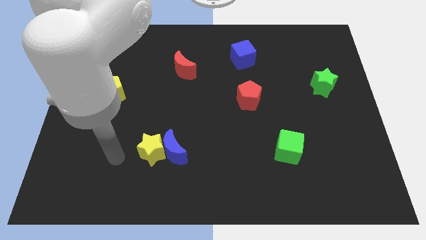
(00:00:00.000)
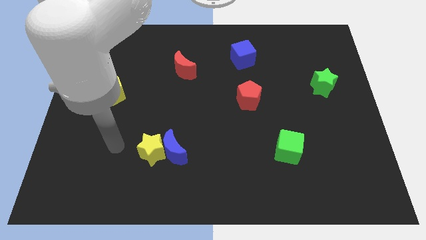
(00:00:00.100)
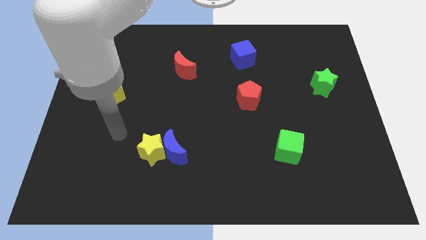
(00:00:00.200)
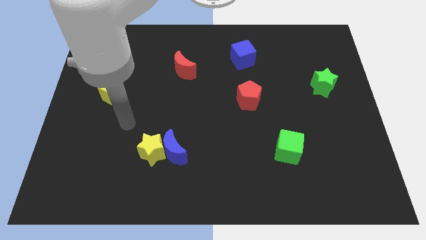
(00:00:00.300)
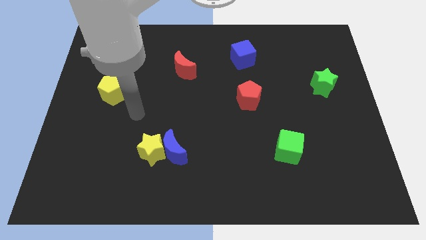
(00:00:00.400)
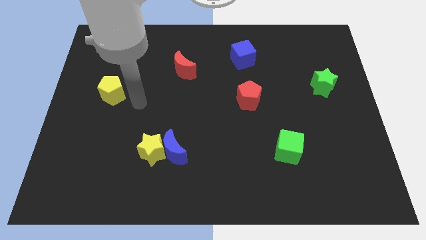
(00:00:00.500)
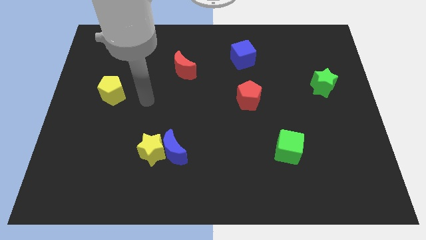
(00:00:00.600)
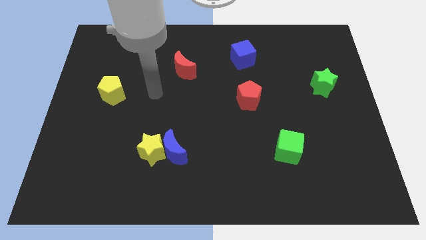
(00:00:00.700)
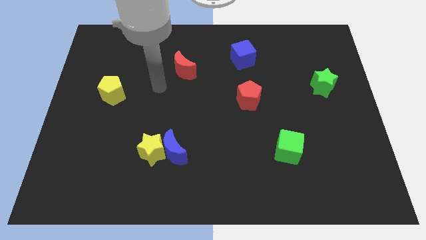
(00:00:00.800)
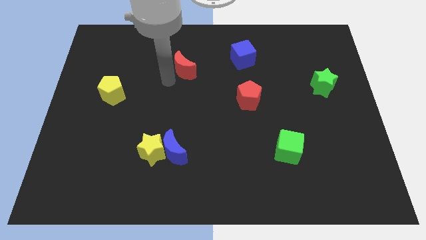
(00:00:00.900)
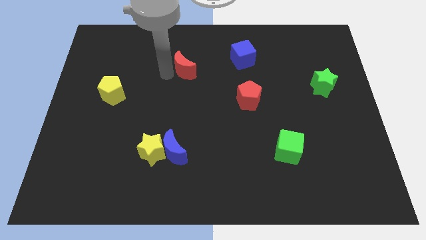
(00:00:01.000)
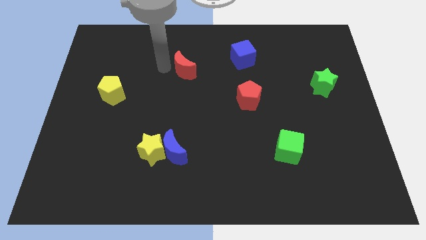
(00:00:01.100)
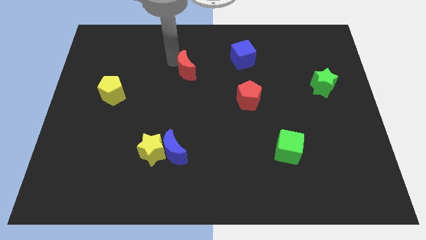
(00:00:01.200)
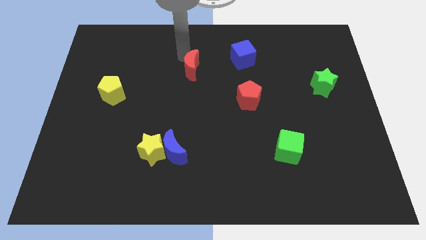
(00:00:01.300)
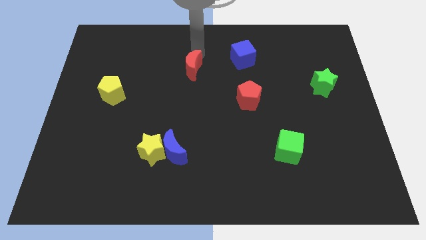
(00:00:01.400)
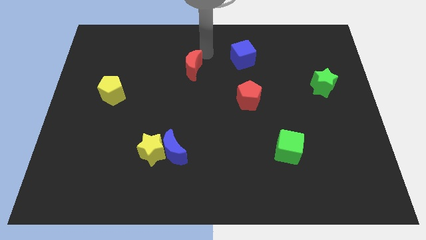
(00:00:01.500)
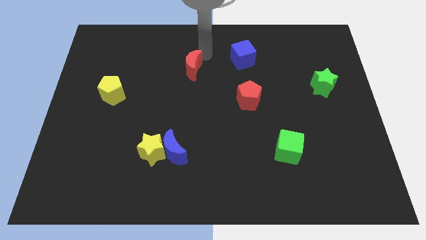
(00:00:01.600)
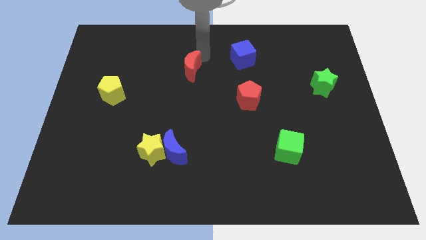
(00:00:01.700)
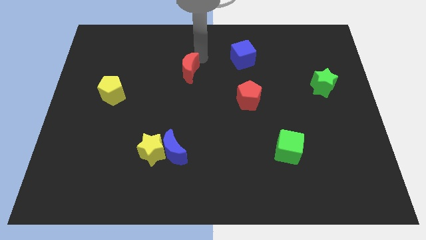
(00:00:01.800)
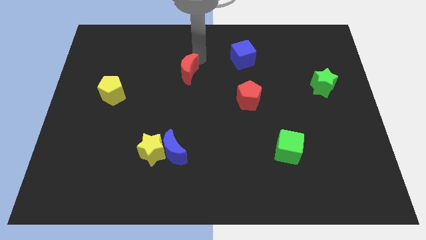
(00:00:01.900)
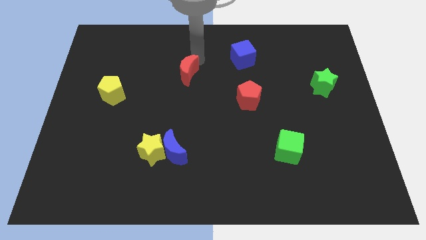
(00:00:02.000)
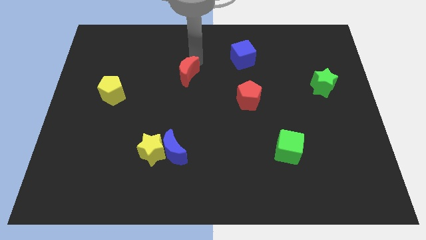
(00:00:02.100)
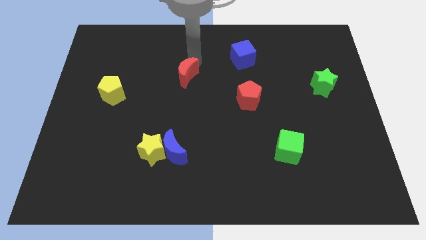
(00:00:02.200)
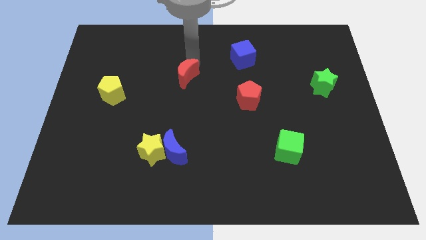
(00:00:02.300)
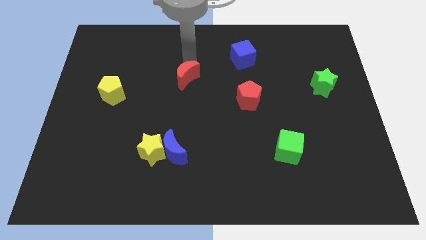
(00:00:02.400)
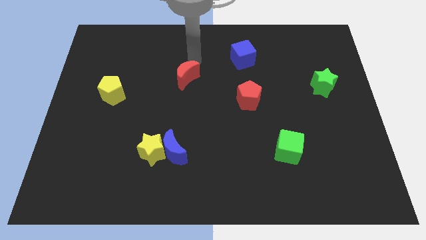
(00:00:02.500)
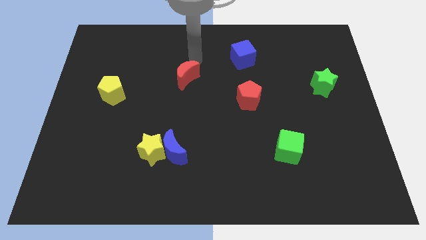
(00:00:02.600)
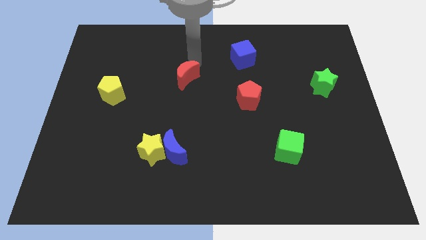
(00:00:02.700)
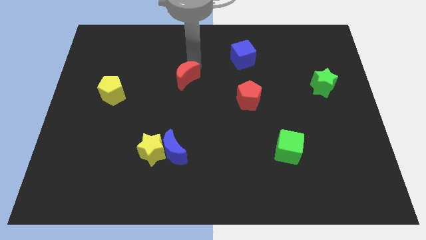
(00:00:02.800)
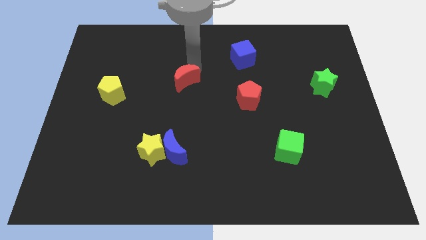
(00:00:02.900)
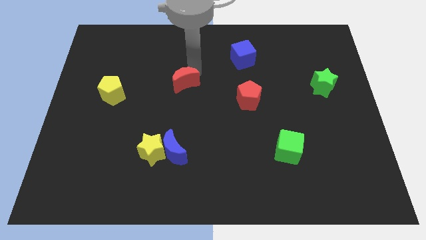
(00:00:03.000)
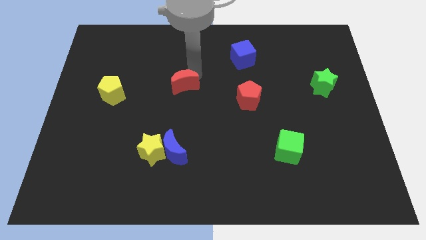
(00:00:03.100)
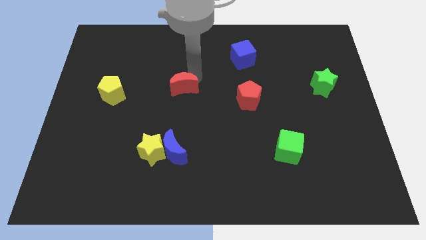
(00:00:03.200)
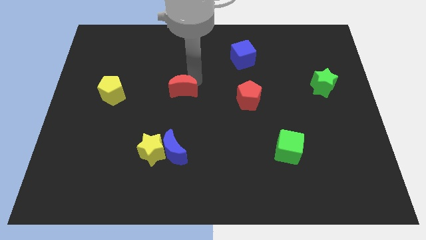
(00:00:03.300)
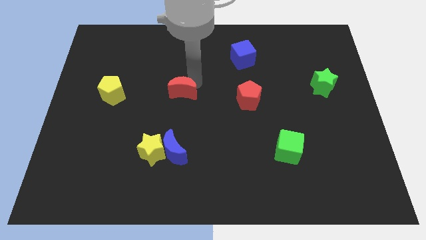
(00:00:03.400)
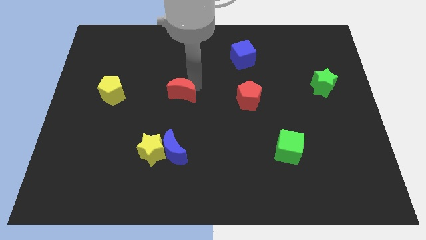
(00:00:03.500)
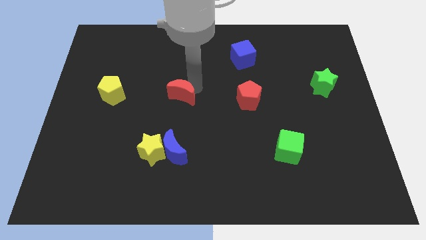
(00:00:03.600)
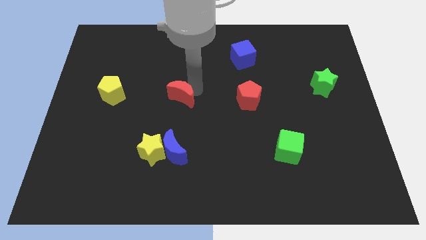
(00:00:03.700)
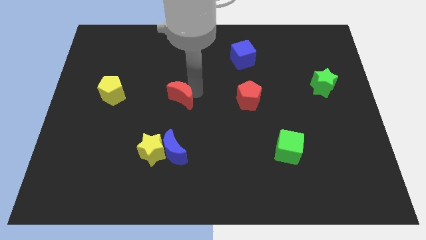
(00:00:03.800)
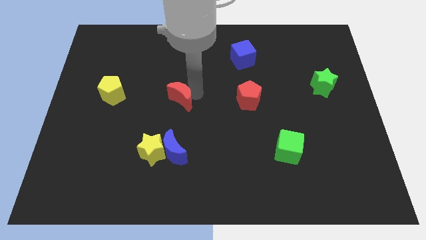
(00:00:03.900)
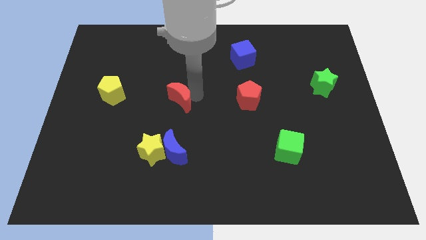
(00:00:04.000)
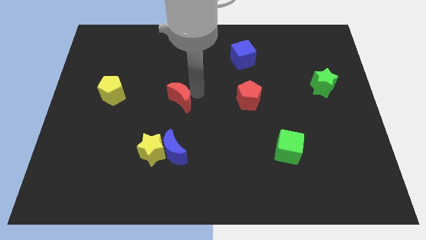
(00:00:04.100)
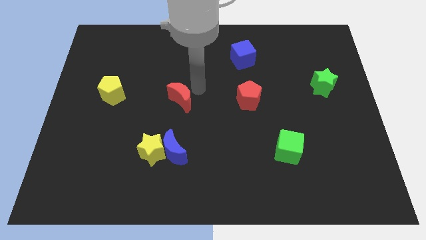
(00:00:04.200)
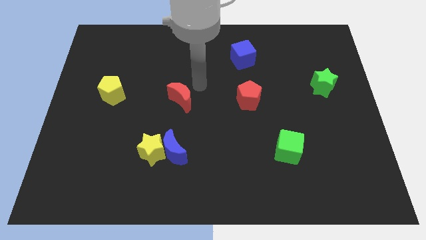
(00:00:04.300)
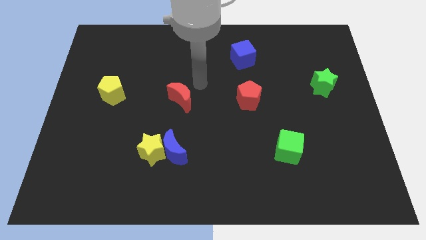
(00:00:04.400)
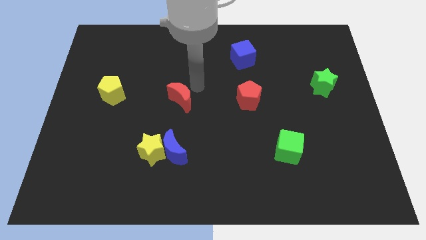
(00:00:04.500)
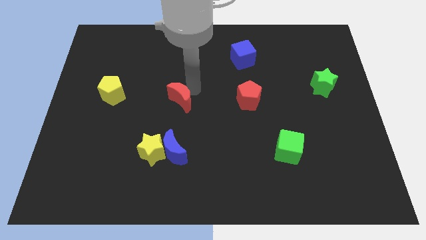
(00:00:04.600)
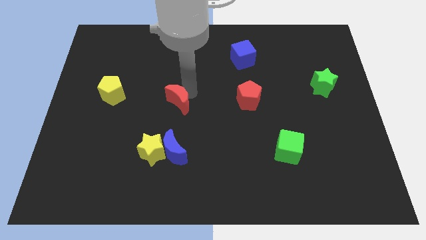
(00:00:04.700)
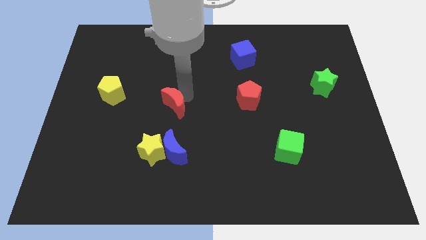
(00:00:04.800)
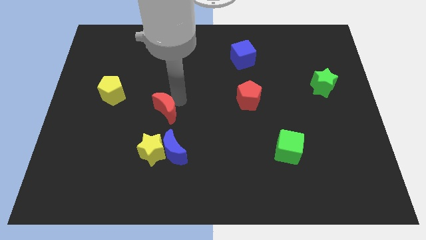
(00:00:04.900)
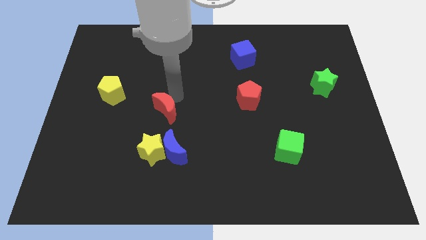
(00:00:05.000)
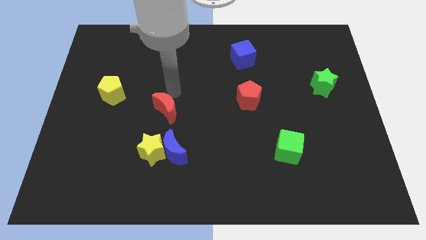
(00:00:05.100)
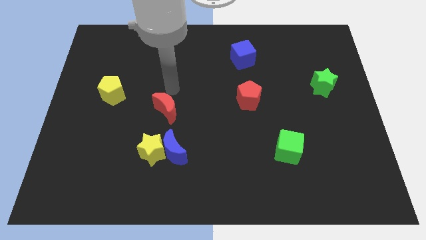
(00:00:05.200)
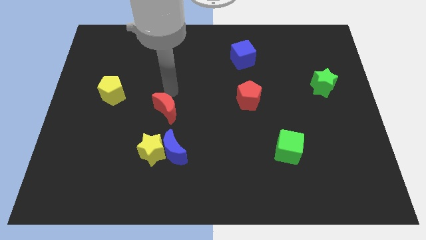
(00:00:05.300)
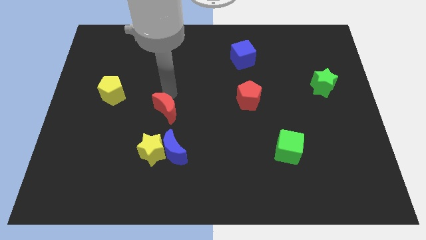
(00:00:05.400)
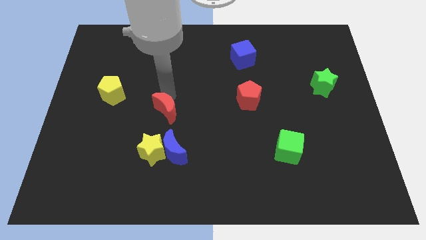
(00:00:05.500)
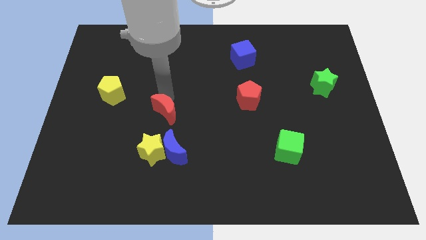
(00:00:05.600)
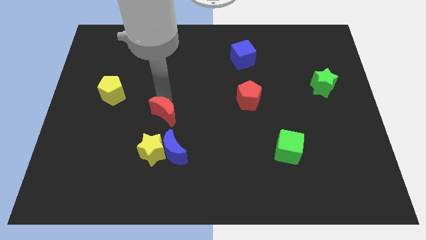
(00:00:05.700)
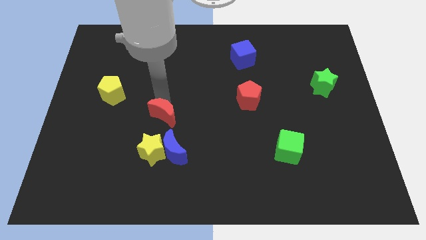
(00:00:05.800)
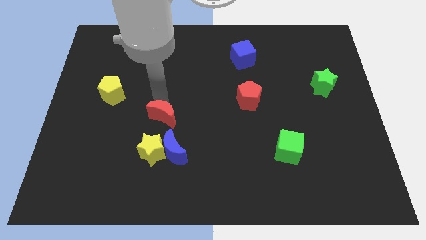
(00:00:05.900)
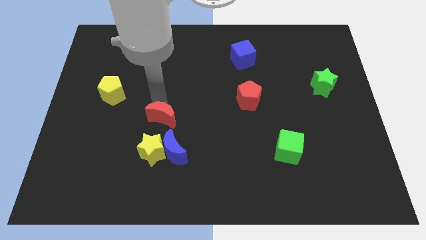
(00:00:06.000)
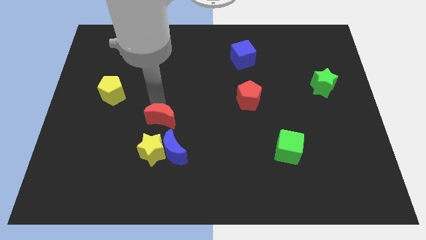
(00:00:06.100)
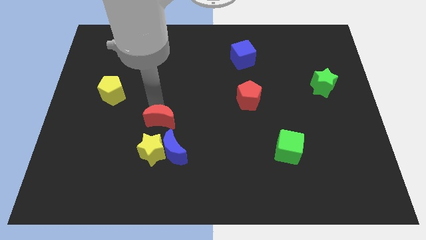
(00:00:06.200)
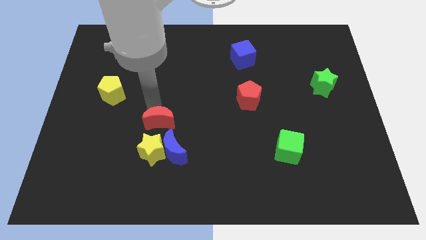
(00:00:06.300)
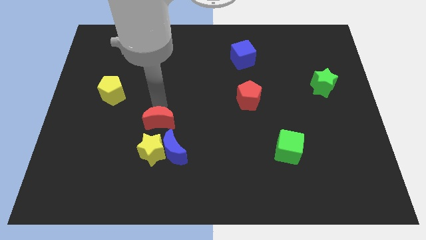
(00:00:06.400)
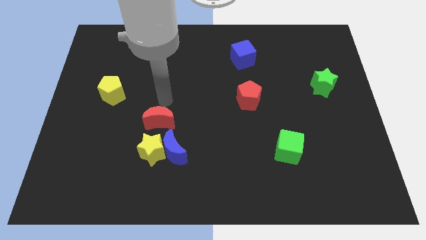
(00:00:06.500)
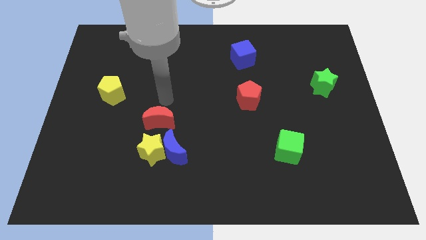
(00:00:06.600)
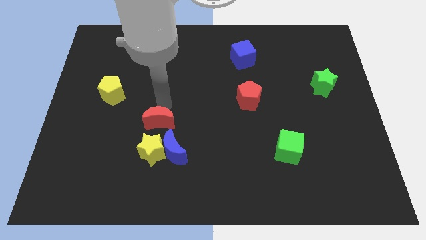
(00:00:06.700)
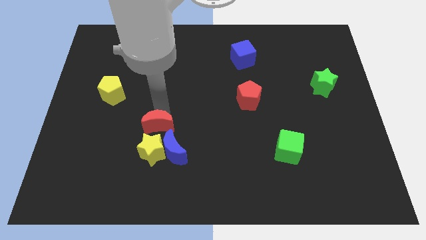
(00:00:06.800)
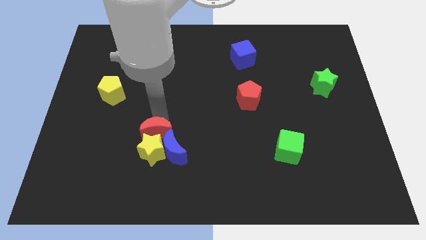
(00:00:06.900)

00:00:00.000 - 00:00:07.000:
slide the red moon towards the yellow star
